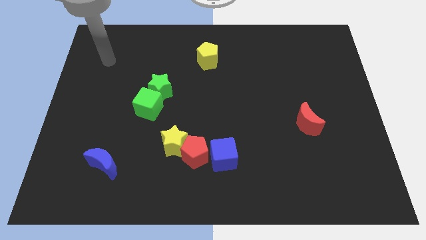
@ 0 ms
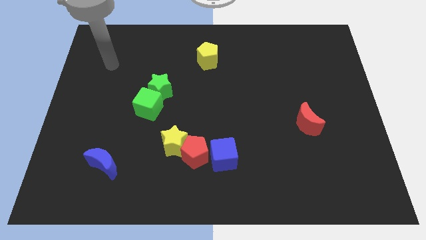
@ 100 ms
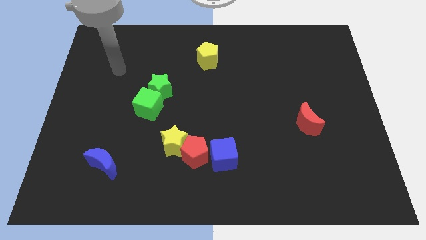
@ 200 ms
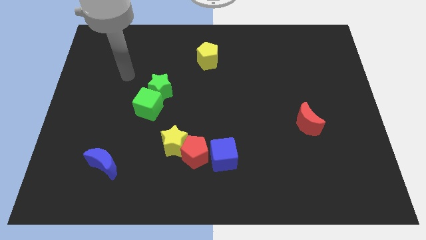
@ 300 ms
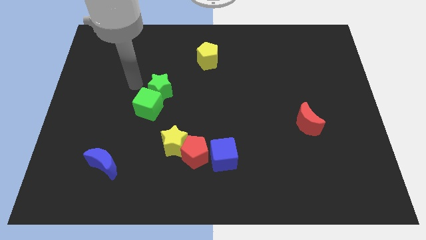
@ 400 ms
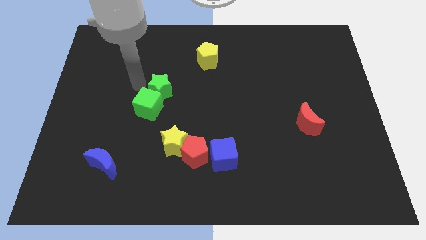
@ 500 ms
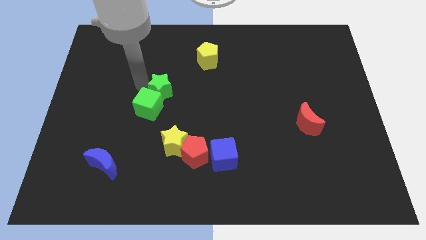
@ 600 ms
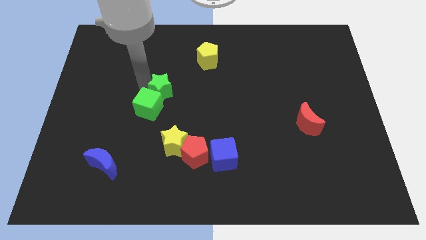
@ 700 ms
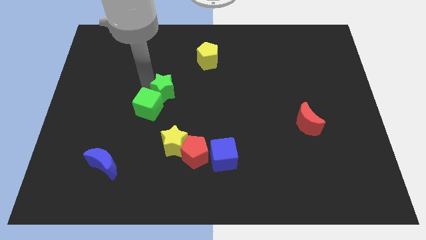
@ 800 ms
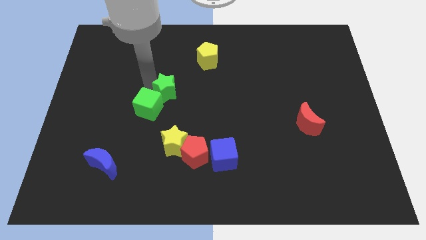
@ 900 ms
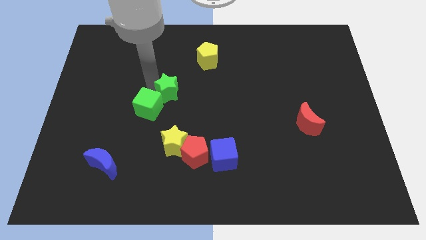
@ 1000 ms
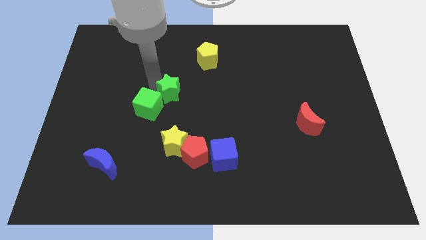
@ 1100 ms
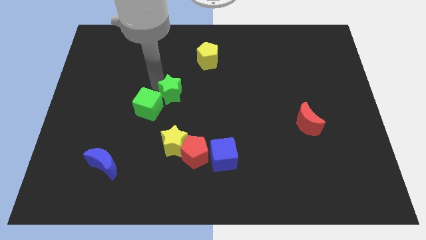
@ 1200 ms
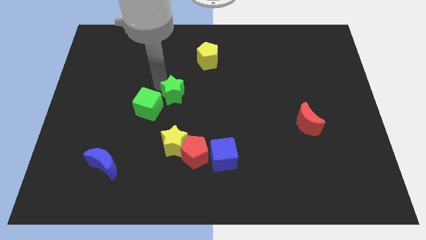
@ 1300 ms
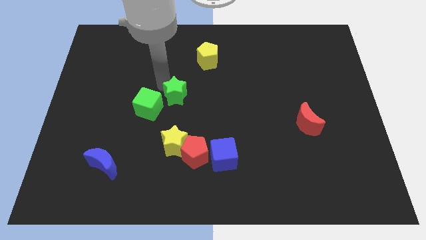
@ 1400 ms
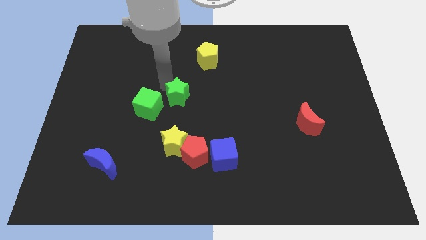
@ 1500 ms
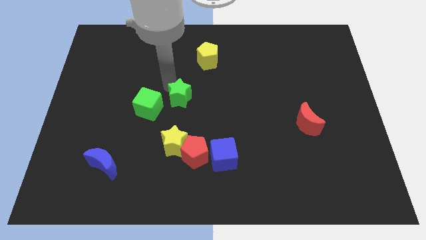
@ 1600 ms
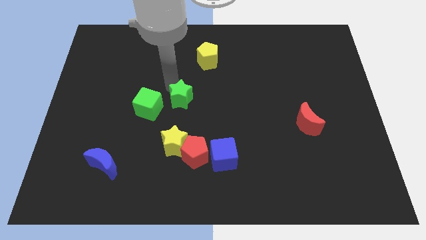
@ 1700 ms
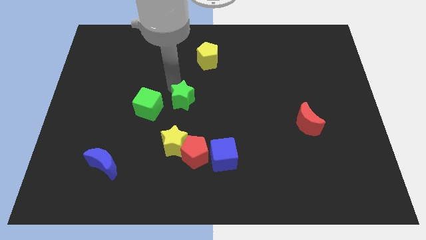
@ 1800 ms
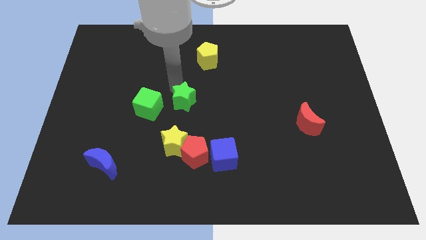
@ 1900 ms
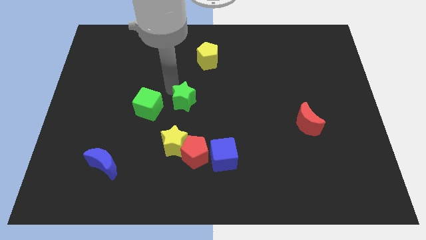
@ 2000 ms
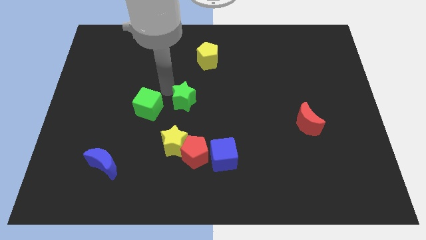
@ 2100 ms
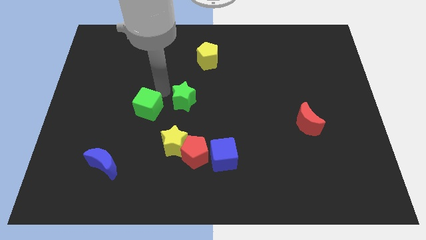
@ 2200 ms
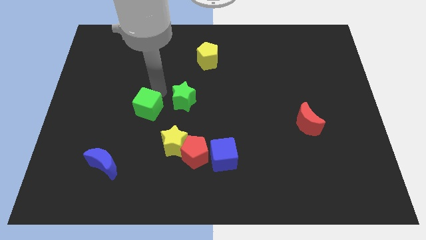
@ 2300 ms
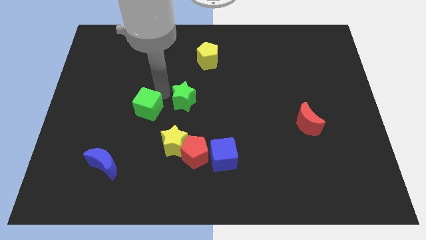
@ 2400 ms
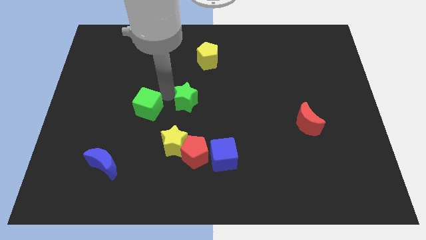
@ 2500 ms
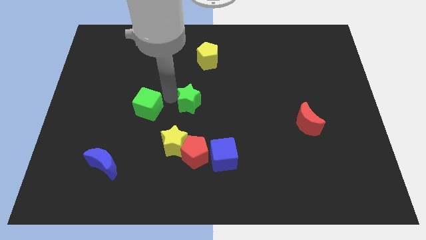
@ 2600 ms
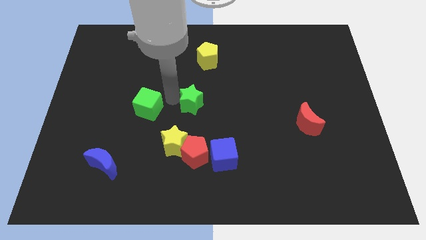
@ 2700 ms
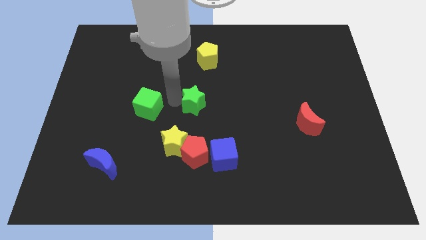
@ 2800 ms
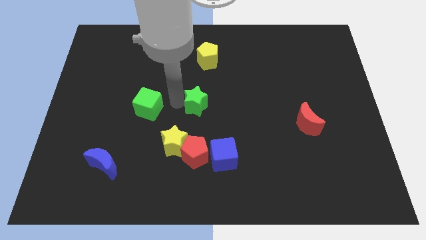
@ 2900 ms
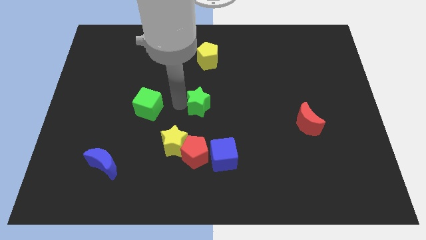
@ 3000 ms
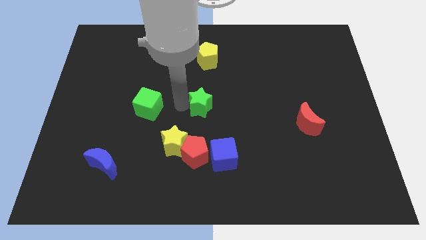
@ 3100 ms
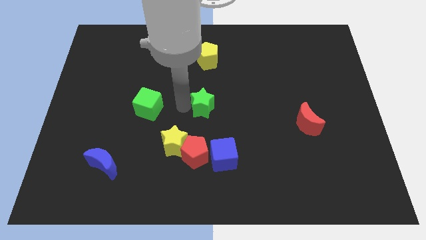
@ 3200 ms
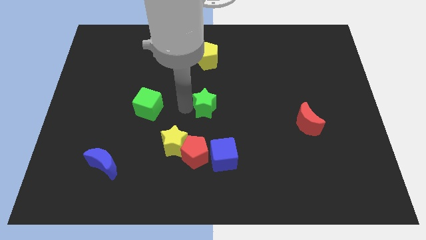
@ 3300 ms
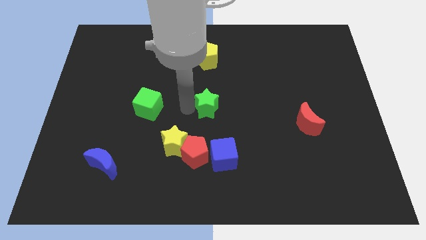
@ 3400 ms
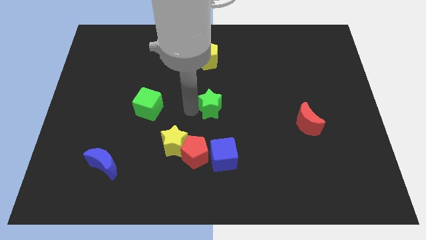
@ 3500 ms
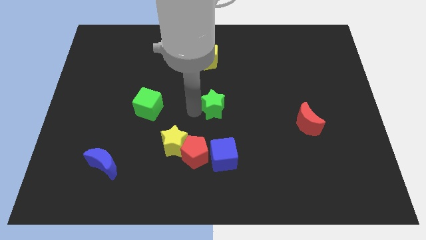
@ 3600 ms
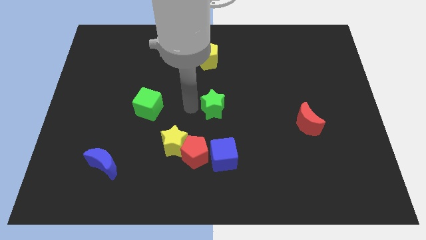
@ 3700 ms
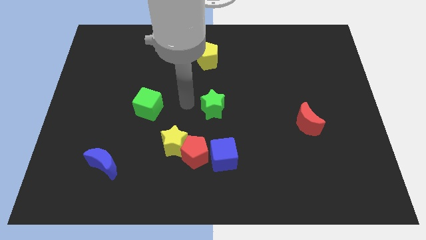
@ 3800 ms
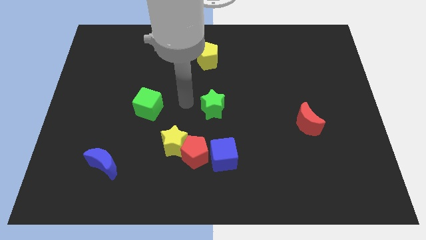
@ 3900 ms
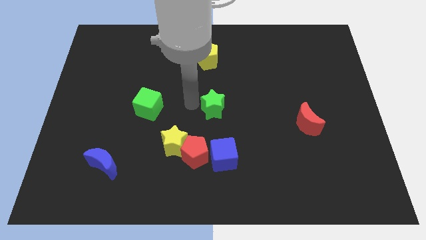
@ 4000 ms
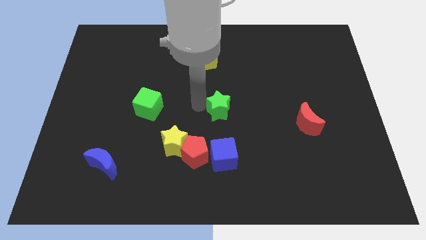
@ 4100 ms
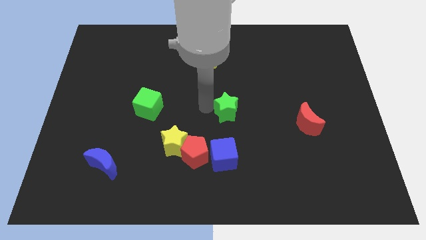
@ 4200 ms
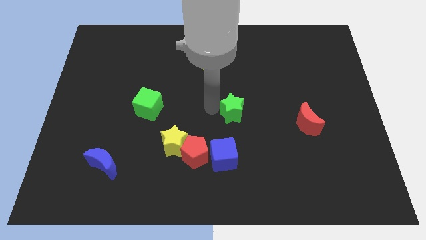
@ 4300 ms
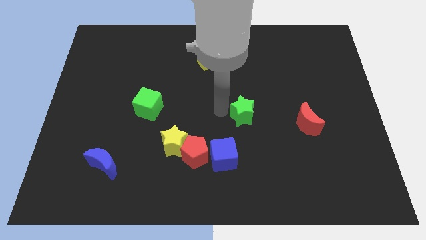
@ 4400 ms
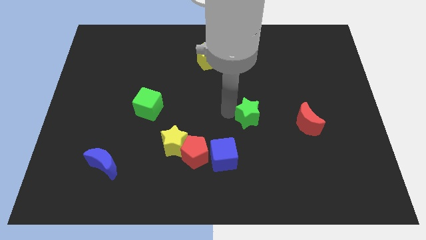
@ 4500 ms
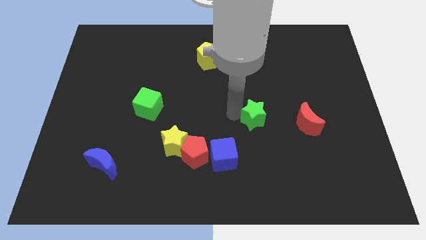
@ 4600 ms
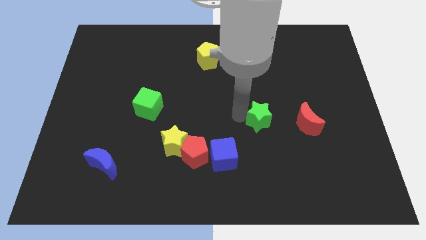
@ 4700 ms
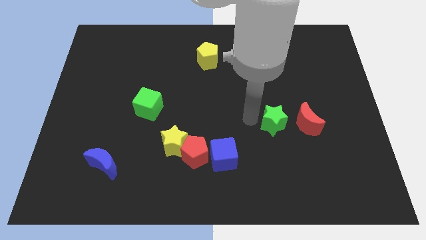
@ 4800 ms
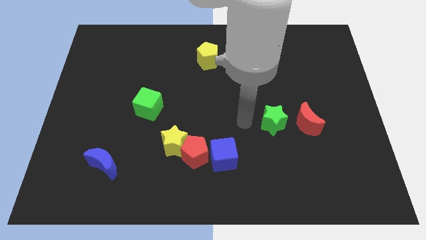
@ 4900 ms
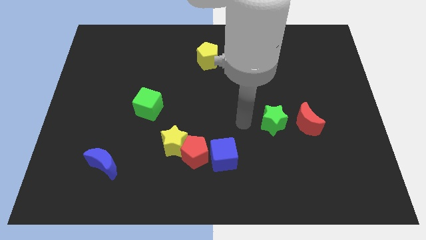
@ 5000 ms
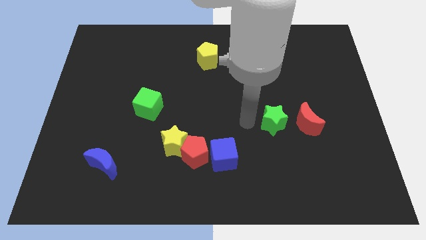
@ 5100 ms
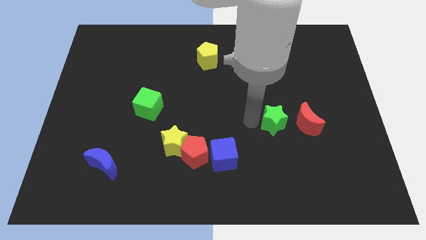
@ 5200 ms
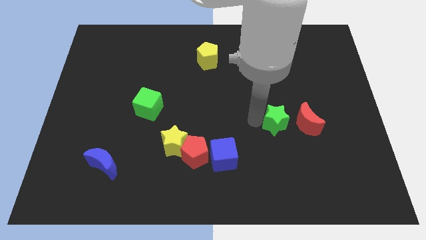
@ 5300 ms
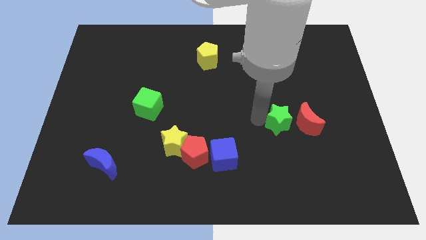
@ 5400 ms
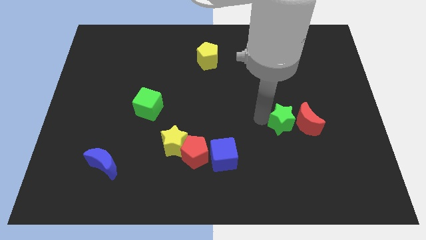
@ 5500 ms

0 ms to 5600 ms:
move the green star close to the red moon

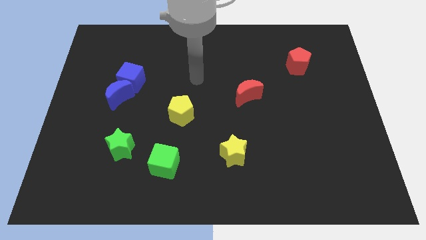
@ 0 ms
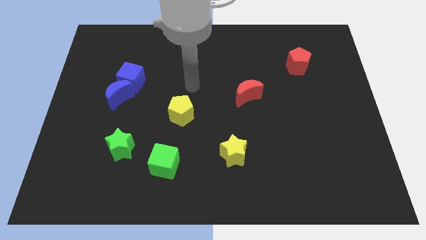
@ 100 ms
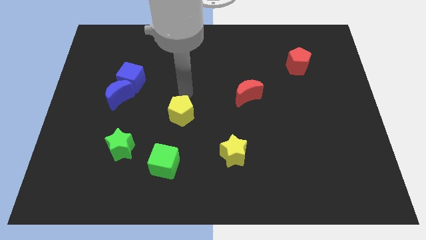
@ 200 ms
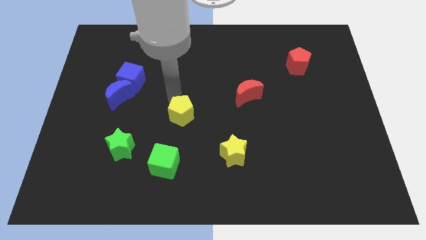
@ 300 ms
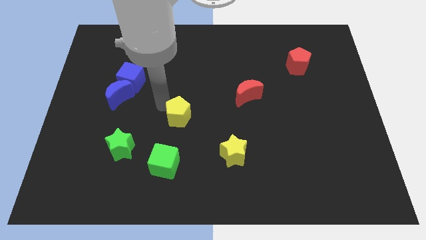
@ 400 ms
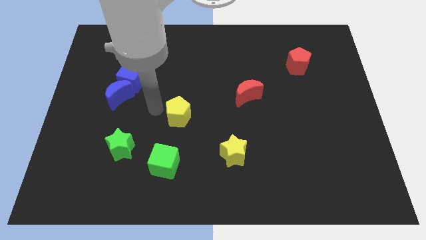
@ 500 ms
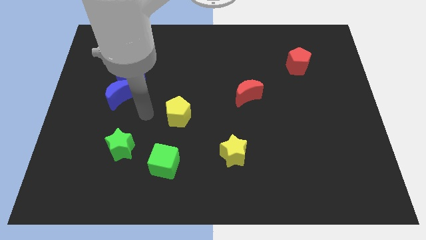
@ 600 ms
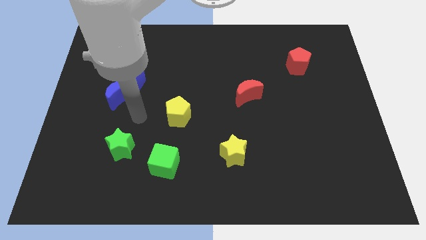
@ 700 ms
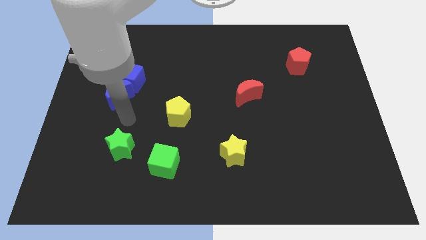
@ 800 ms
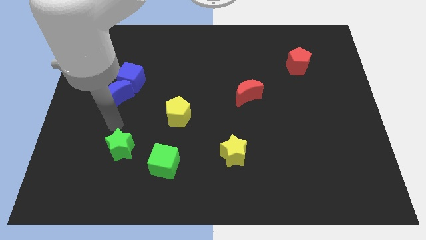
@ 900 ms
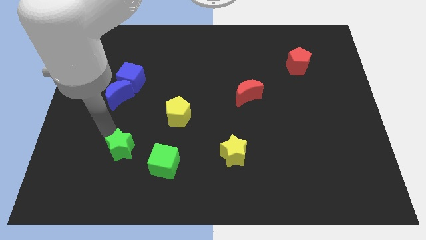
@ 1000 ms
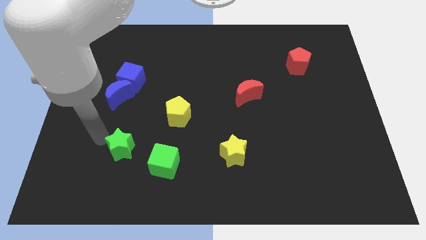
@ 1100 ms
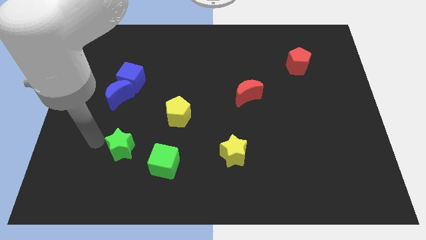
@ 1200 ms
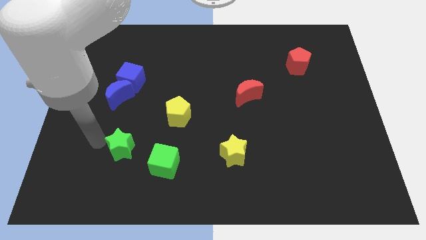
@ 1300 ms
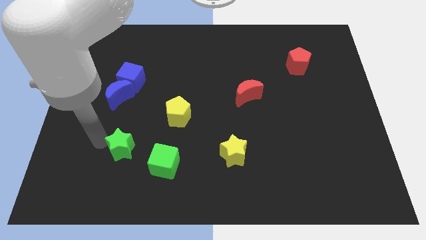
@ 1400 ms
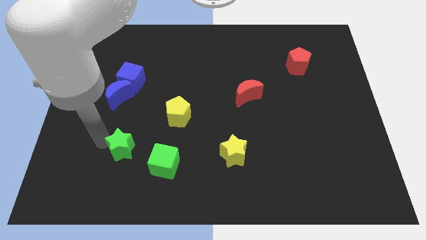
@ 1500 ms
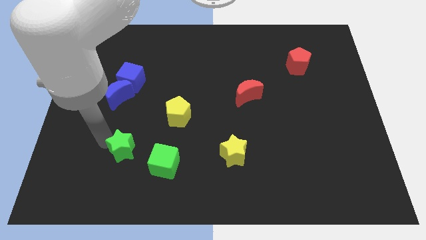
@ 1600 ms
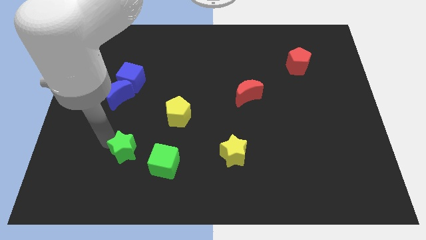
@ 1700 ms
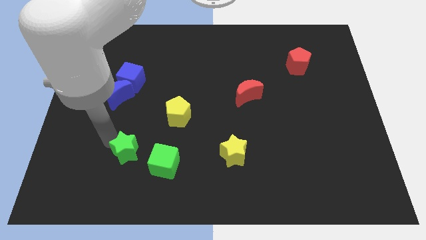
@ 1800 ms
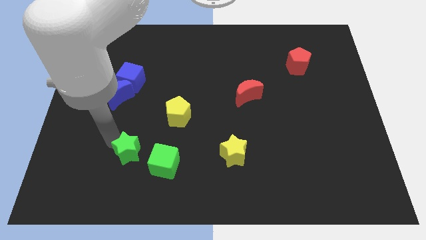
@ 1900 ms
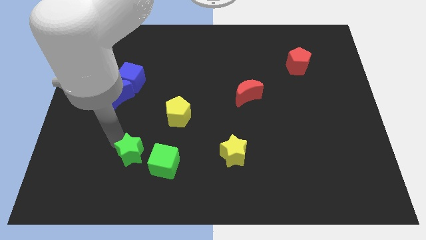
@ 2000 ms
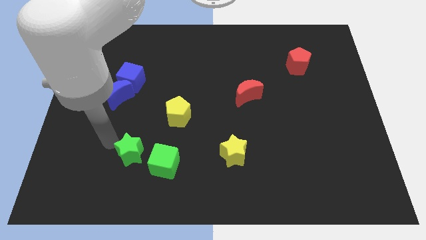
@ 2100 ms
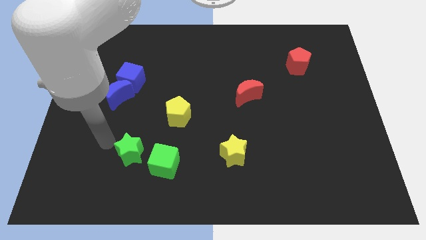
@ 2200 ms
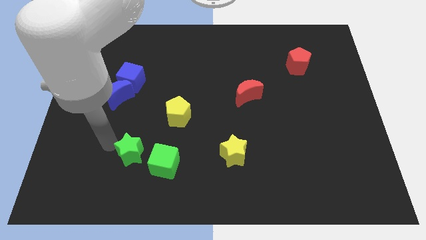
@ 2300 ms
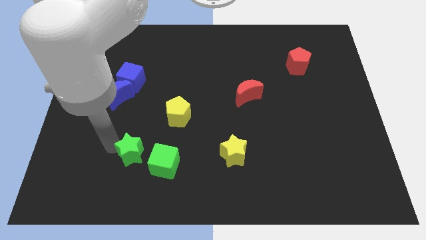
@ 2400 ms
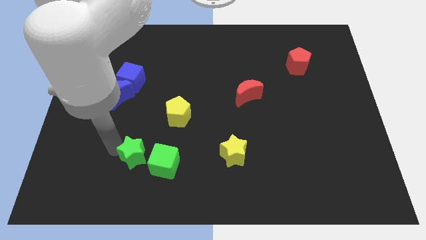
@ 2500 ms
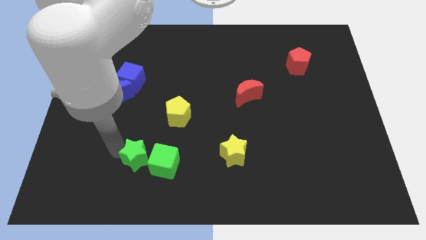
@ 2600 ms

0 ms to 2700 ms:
push the green star towards the green cube
